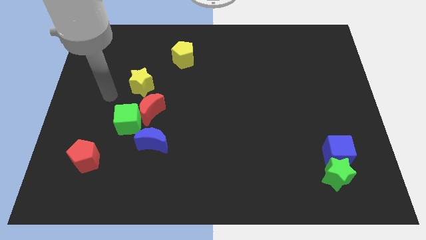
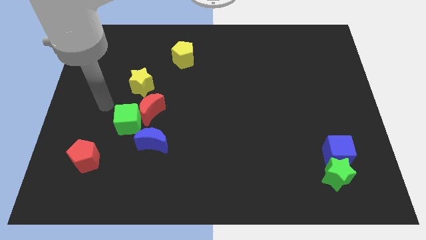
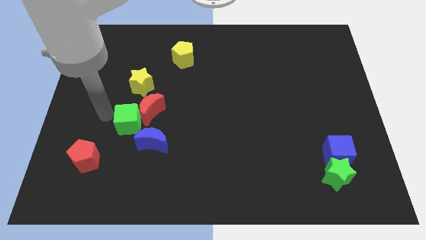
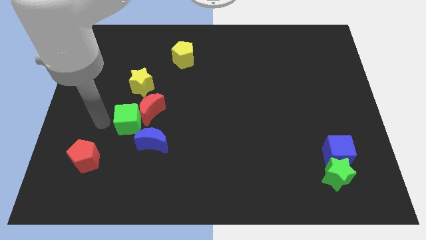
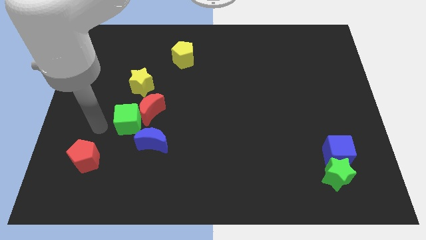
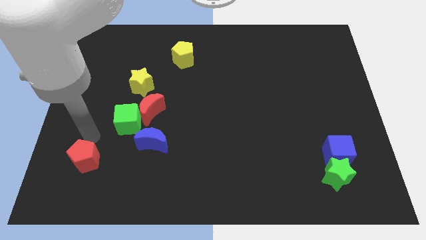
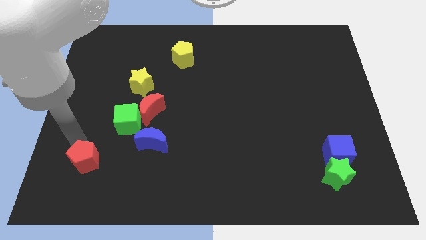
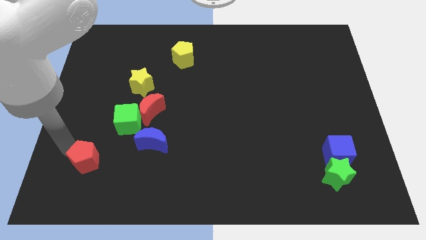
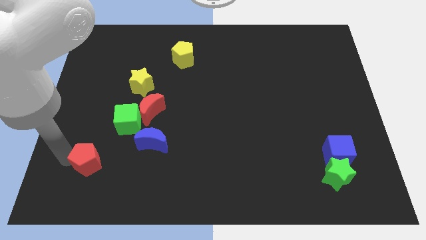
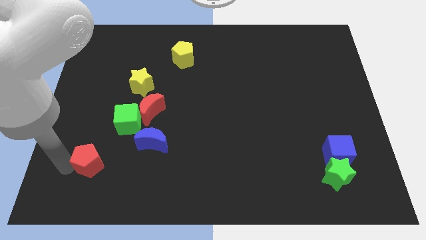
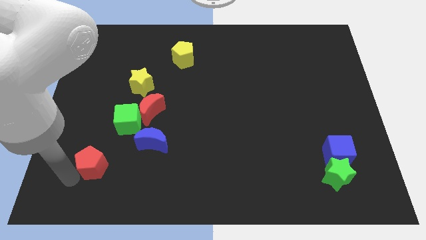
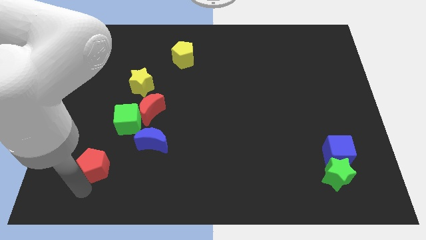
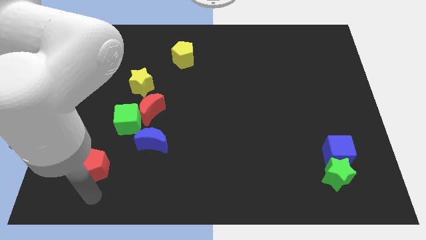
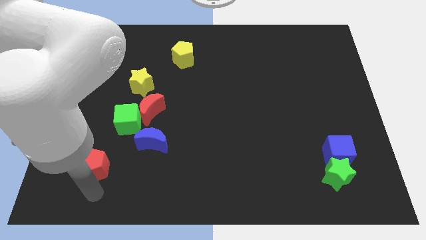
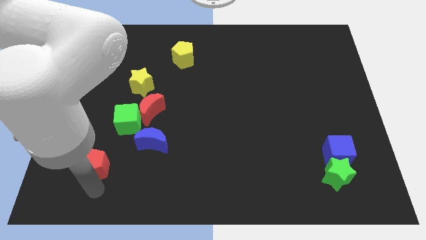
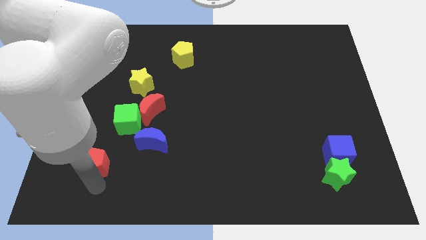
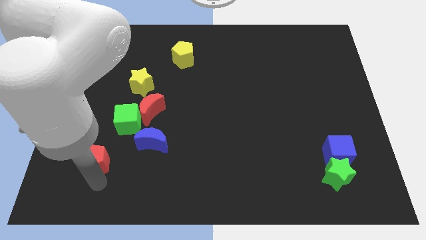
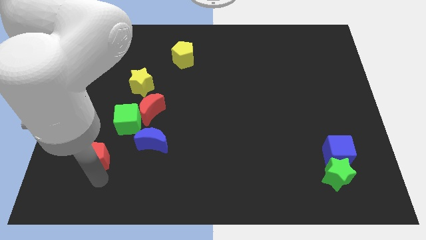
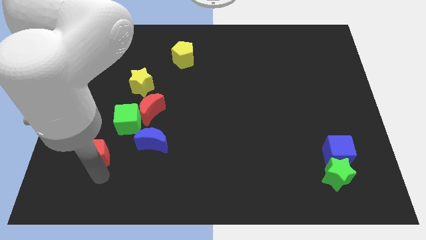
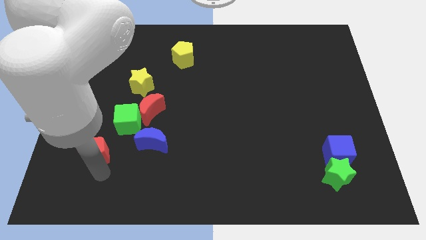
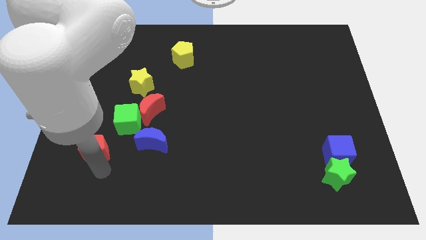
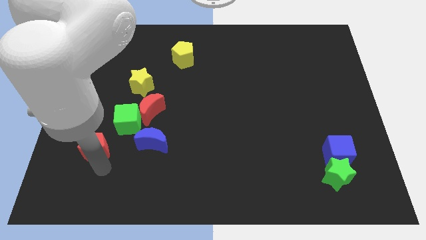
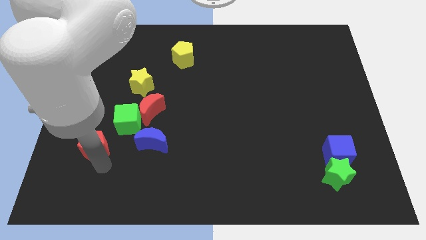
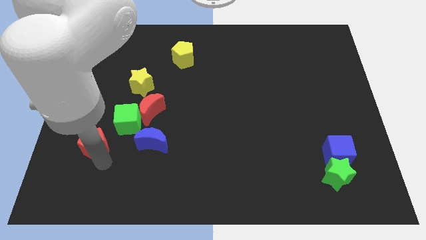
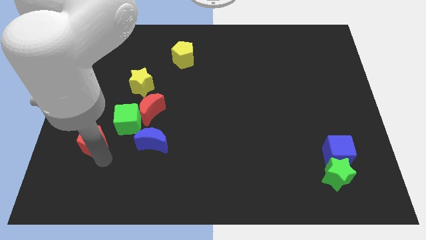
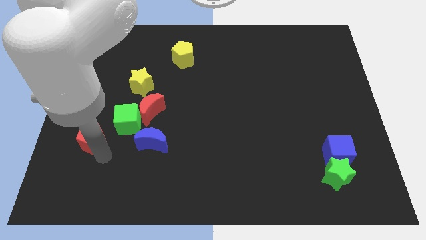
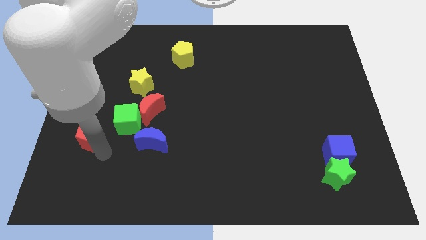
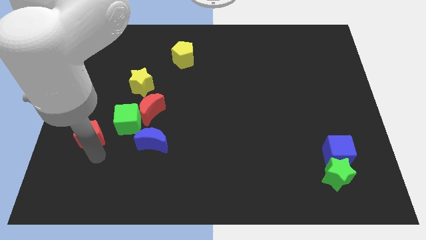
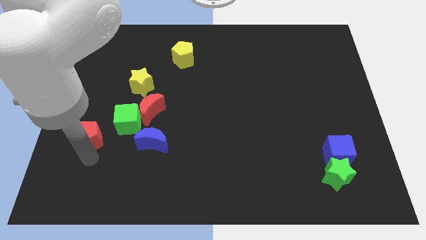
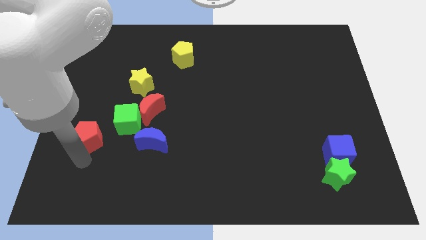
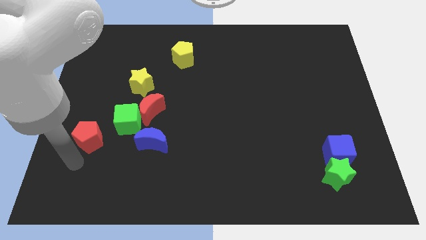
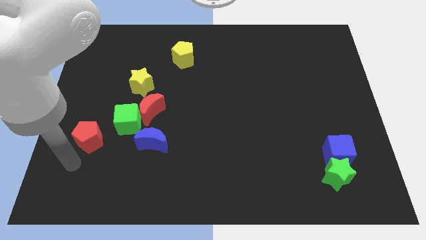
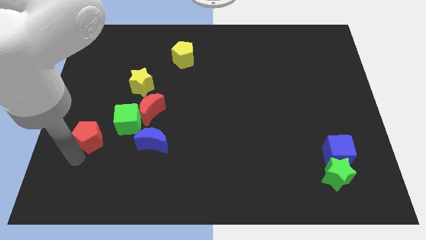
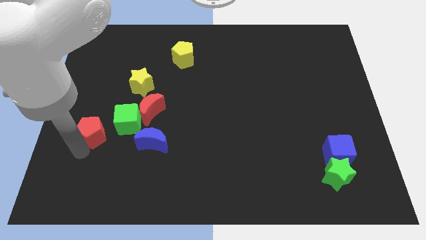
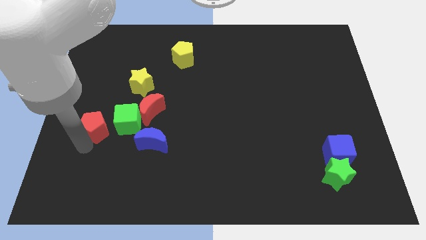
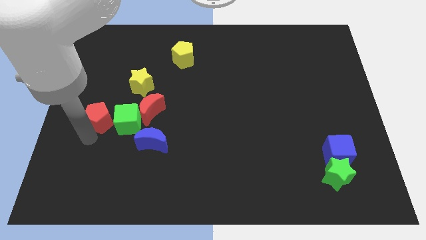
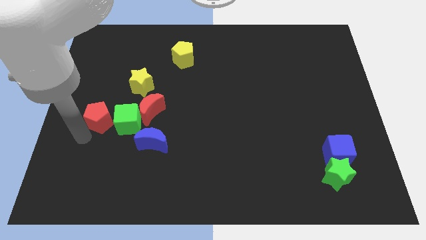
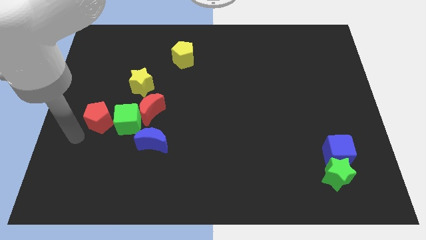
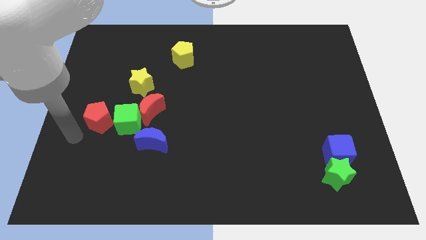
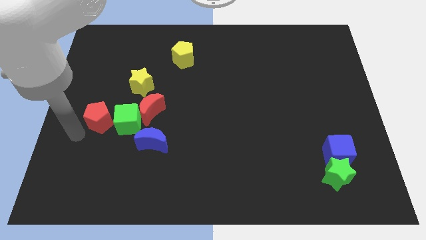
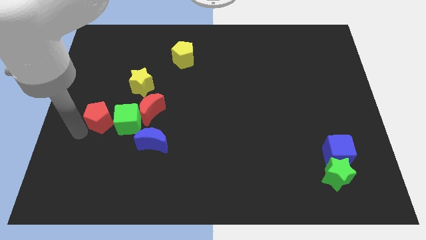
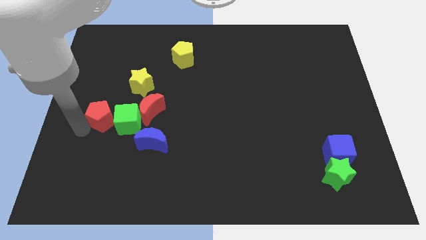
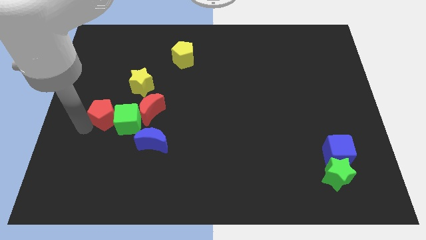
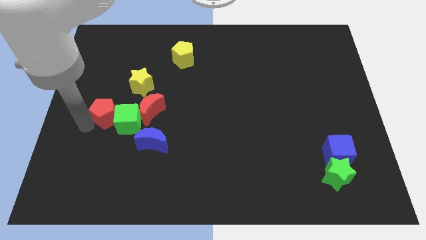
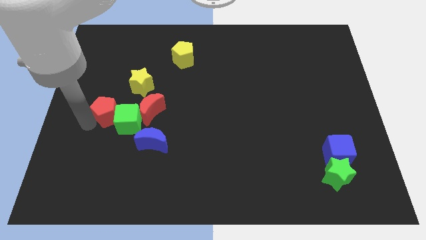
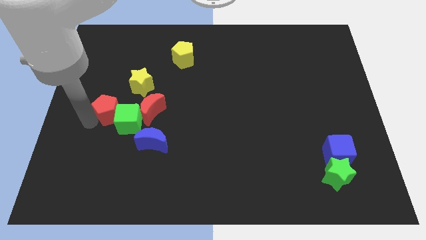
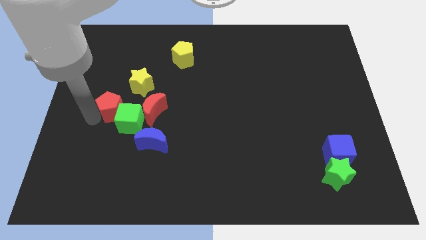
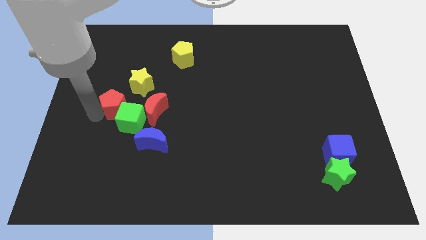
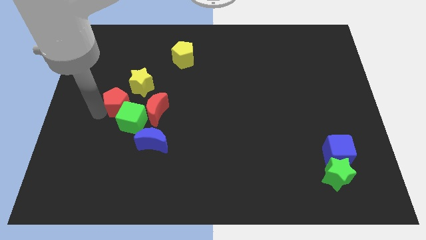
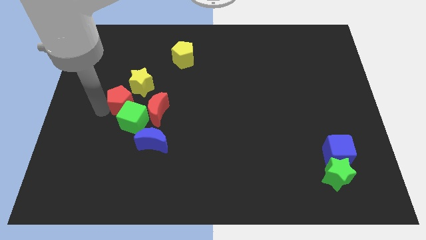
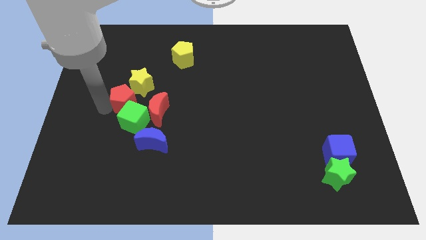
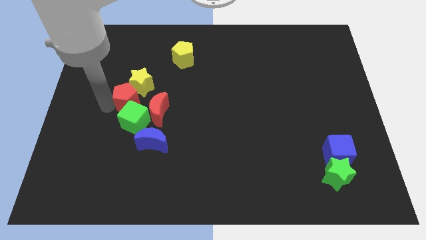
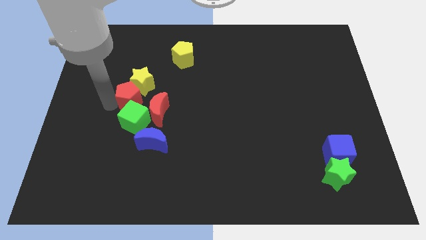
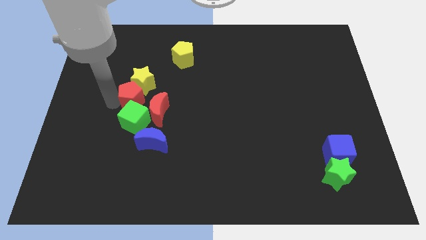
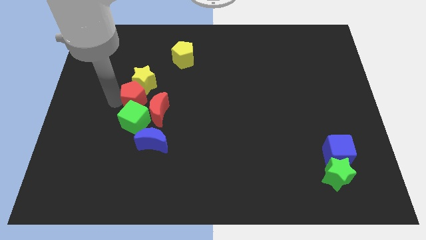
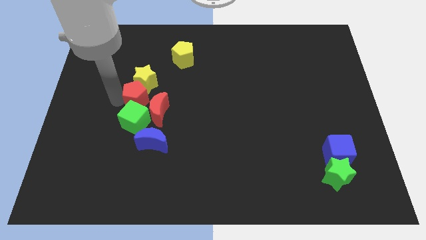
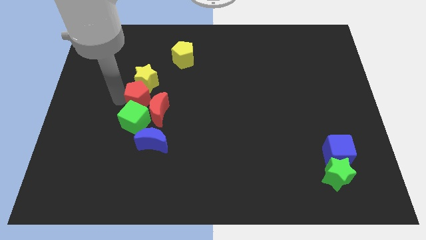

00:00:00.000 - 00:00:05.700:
move the red pentagon to the top side of the blue moon
